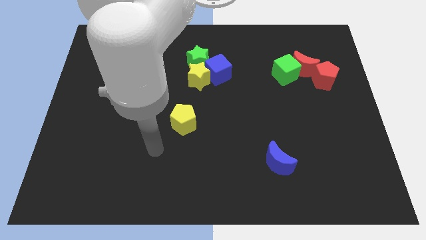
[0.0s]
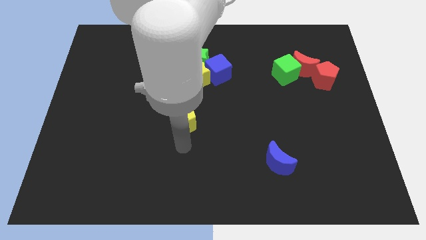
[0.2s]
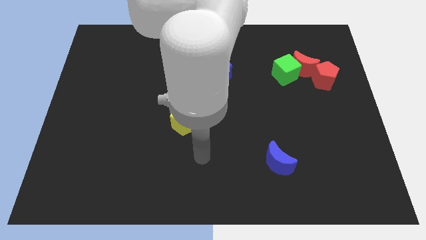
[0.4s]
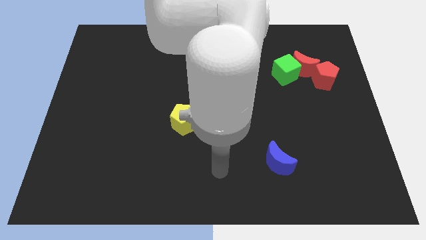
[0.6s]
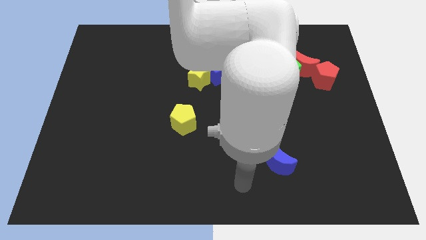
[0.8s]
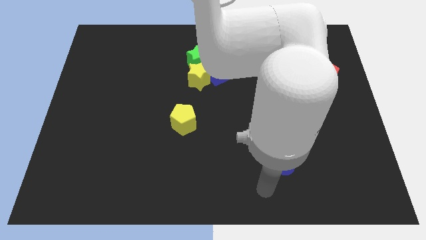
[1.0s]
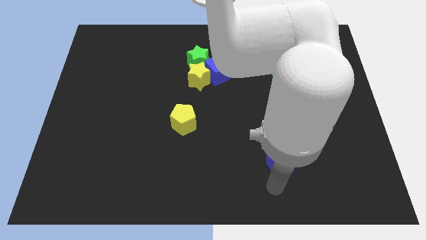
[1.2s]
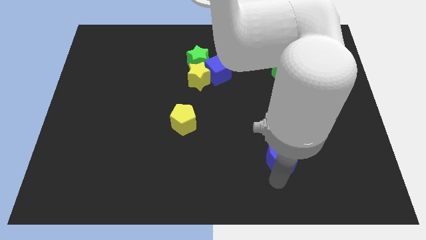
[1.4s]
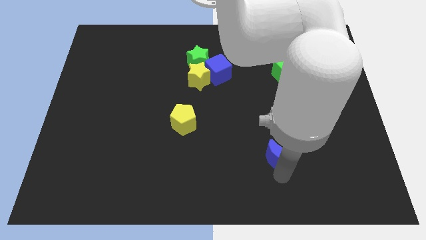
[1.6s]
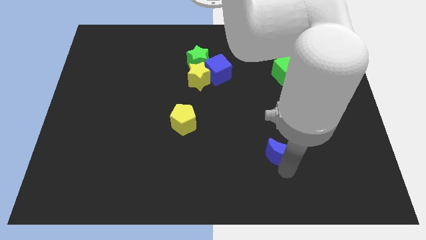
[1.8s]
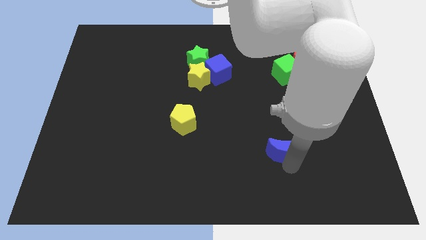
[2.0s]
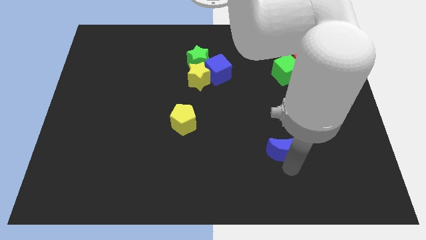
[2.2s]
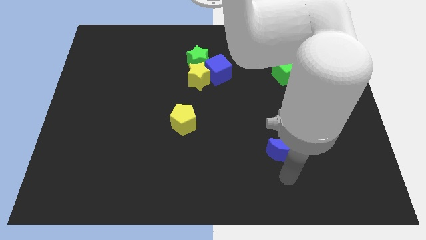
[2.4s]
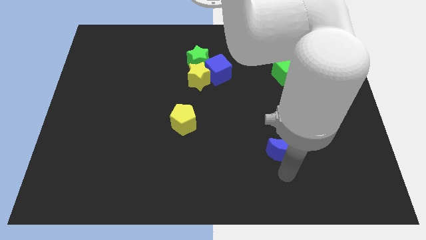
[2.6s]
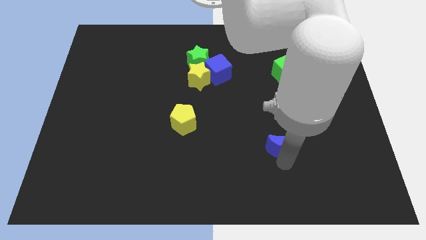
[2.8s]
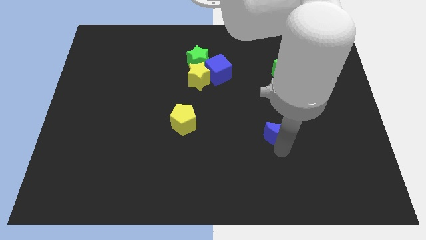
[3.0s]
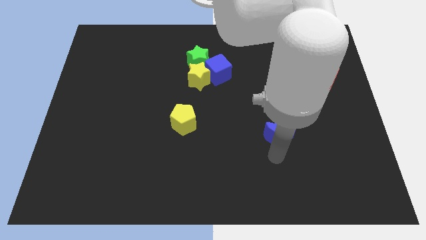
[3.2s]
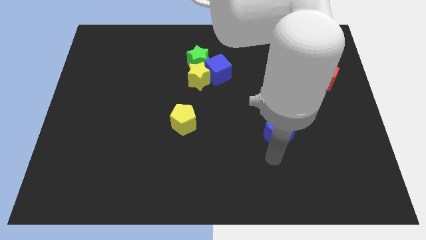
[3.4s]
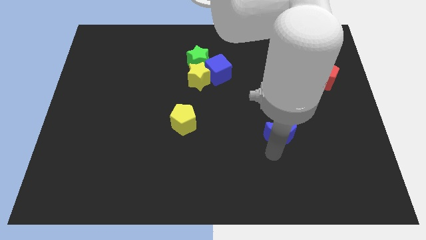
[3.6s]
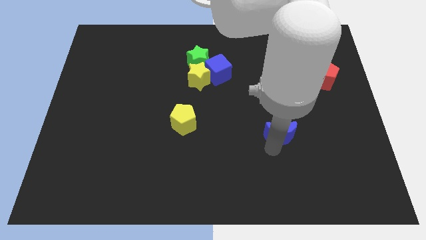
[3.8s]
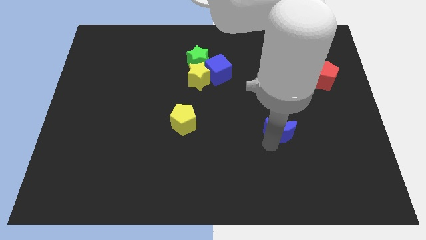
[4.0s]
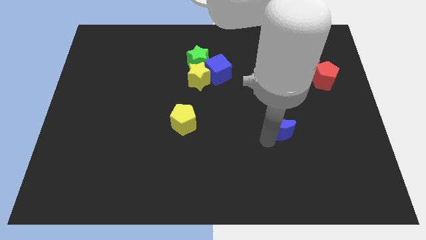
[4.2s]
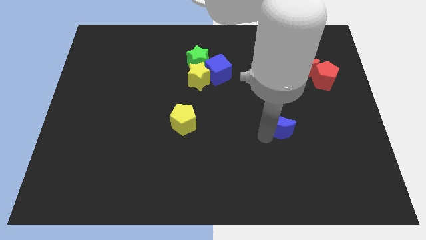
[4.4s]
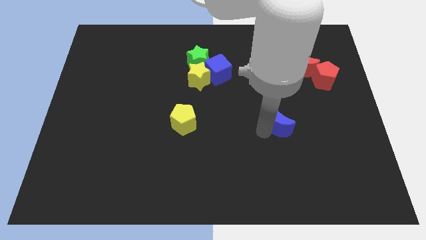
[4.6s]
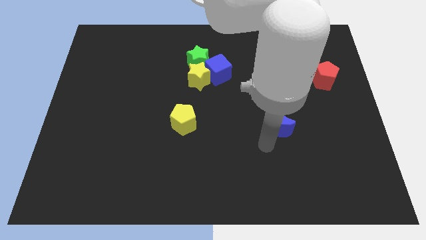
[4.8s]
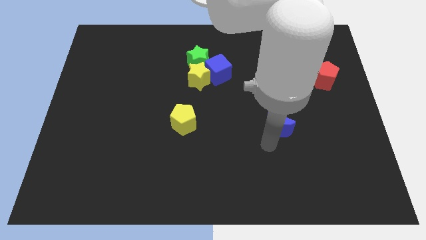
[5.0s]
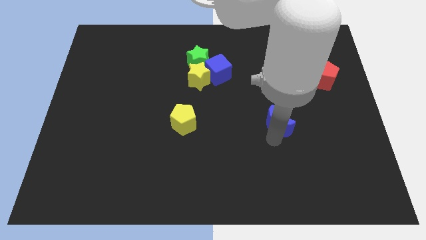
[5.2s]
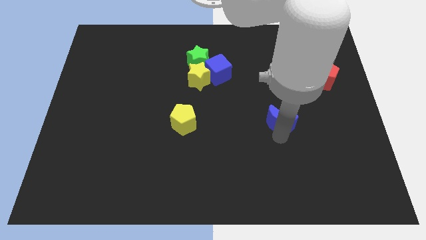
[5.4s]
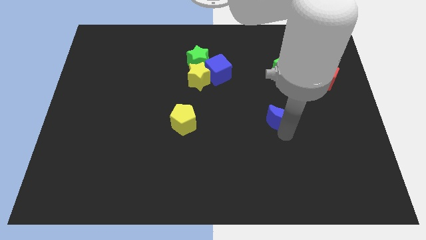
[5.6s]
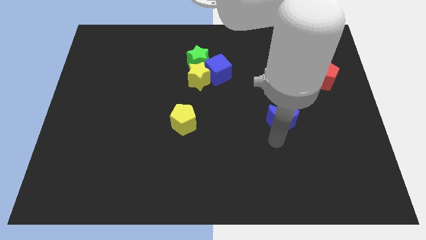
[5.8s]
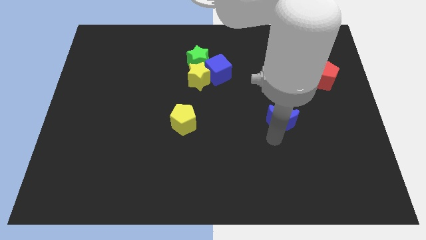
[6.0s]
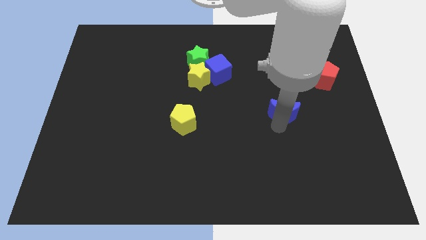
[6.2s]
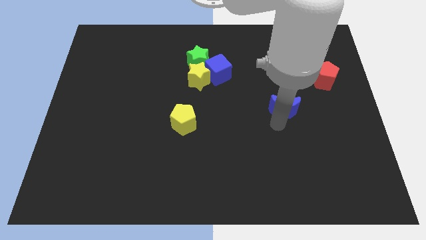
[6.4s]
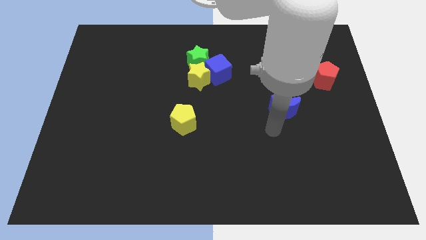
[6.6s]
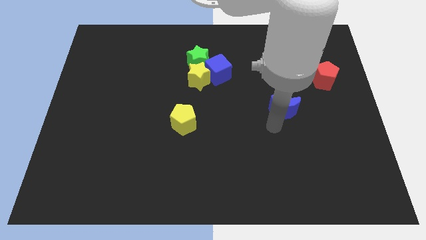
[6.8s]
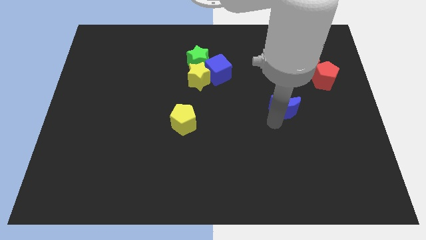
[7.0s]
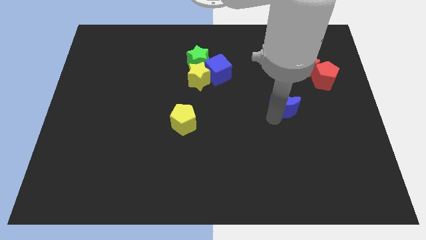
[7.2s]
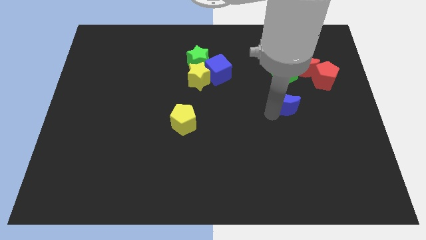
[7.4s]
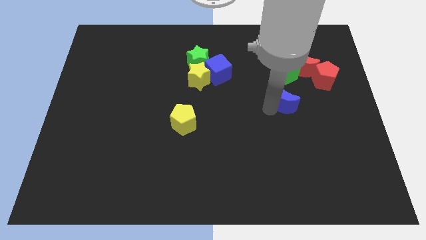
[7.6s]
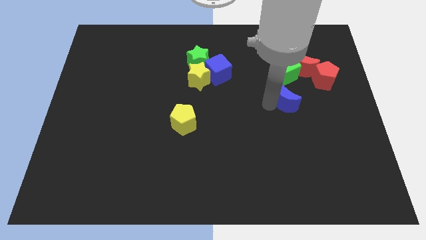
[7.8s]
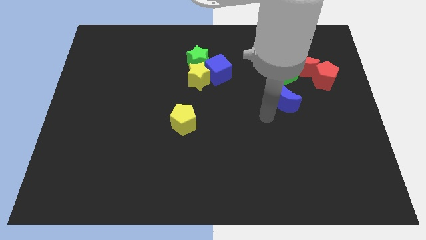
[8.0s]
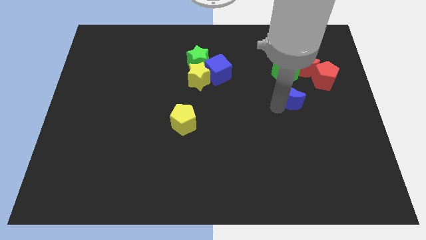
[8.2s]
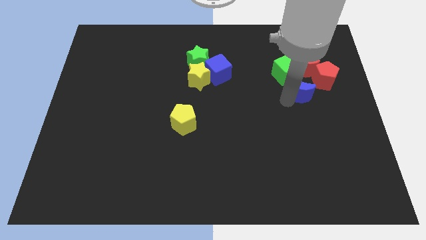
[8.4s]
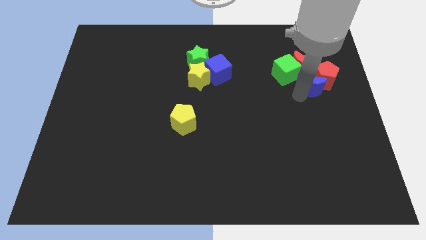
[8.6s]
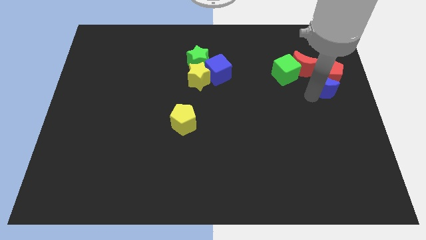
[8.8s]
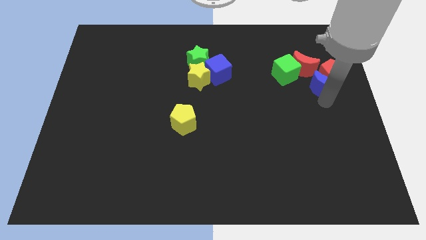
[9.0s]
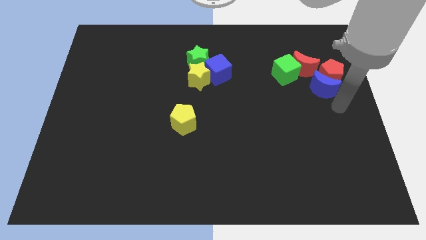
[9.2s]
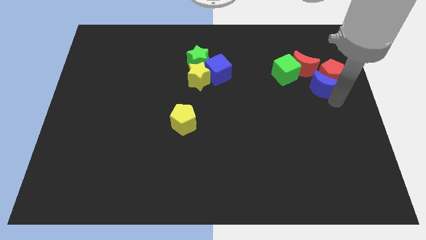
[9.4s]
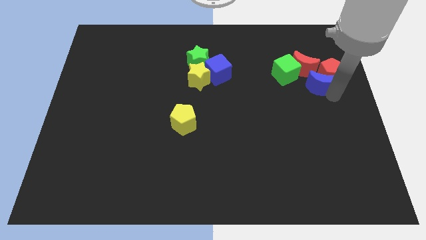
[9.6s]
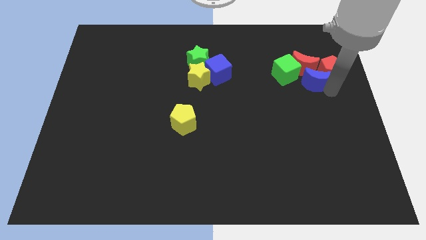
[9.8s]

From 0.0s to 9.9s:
move the blue moon next to the red moon

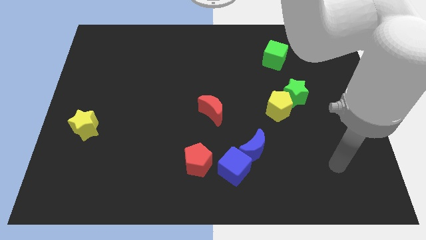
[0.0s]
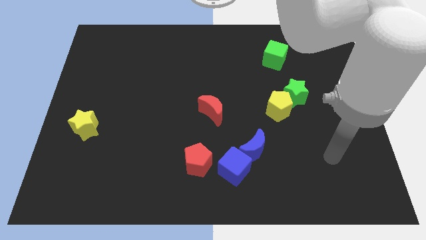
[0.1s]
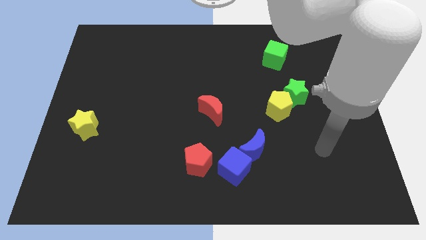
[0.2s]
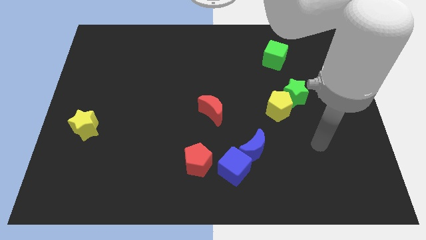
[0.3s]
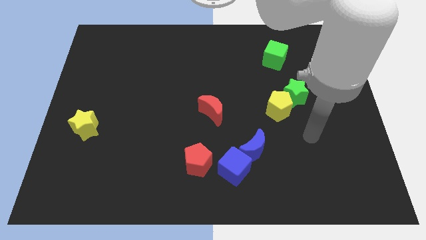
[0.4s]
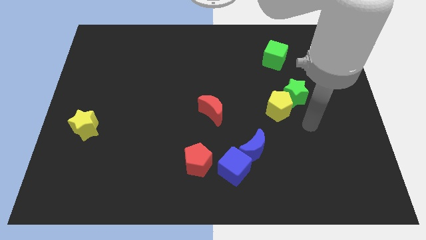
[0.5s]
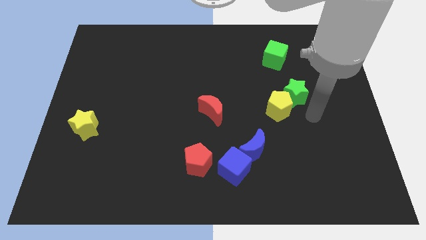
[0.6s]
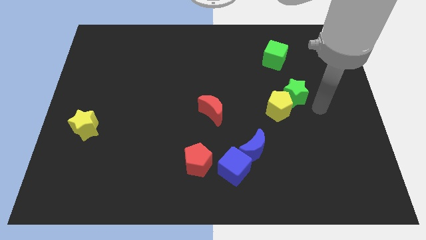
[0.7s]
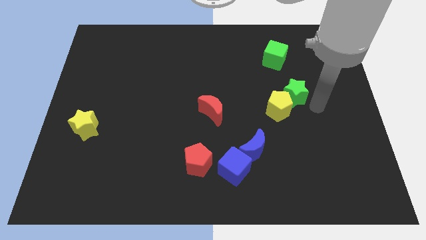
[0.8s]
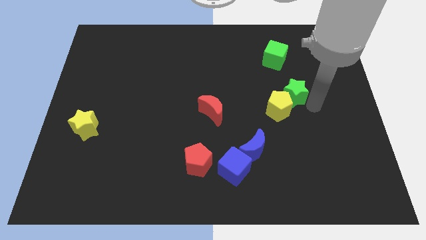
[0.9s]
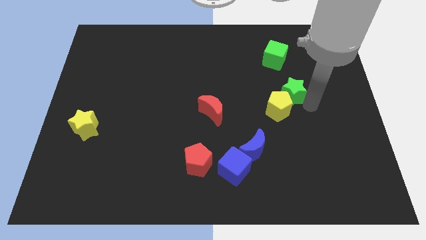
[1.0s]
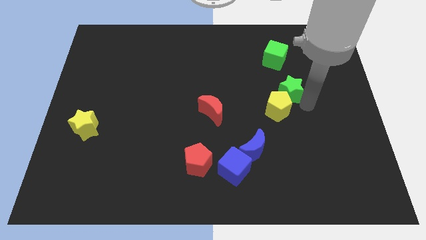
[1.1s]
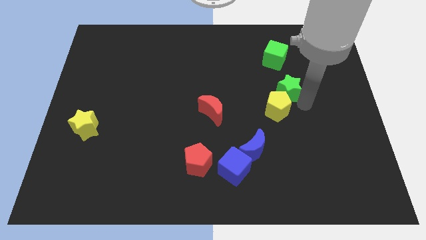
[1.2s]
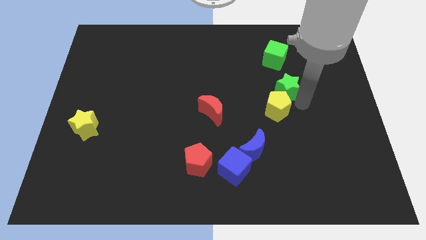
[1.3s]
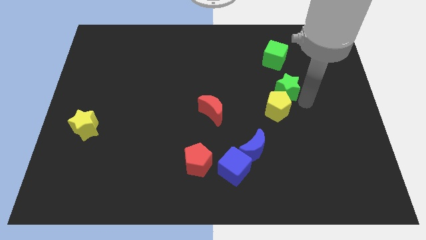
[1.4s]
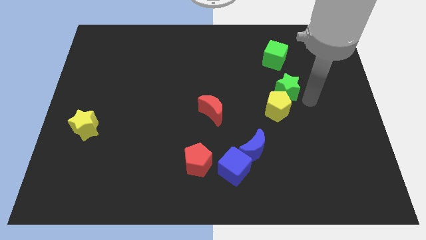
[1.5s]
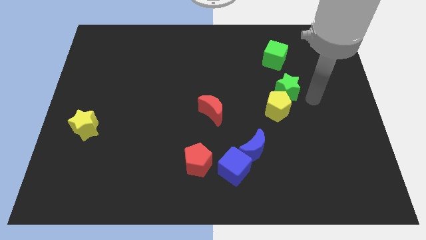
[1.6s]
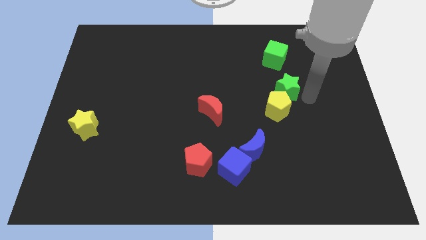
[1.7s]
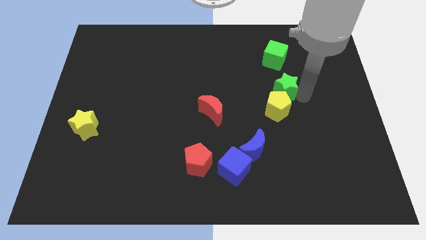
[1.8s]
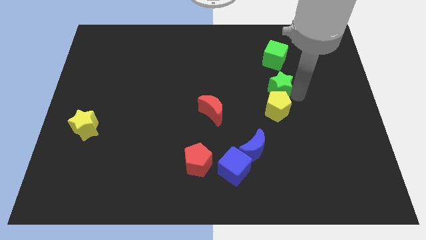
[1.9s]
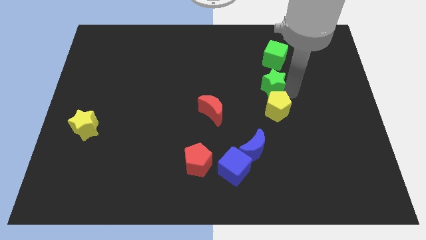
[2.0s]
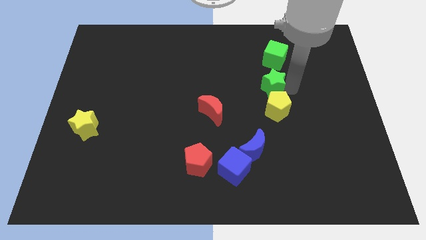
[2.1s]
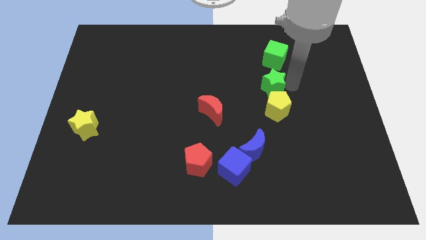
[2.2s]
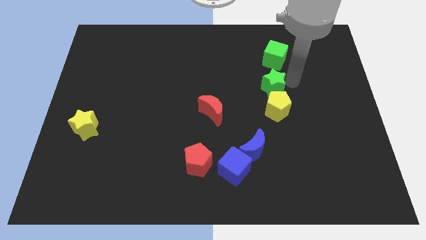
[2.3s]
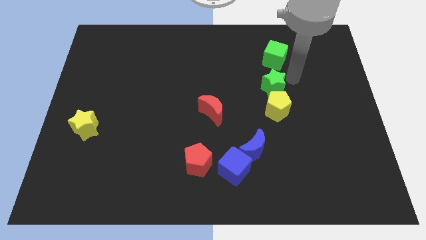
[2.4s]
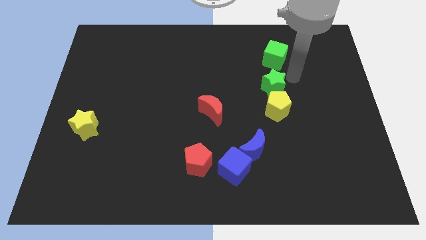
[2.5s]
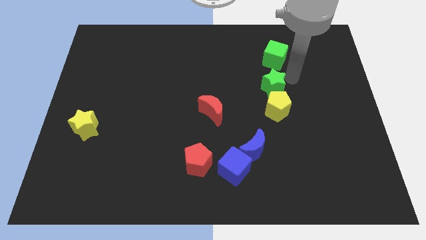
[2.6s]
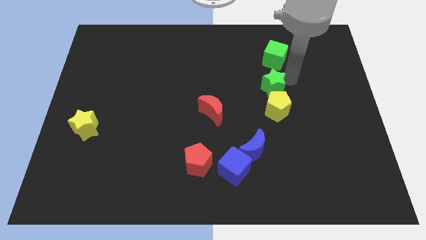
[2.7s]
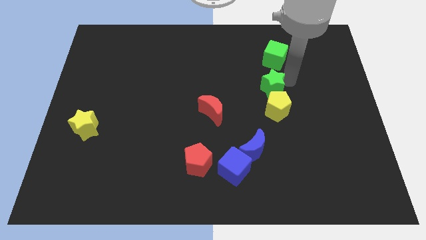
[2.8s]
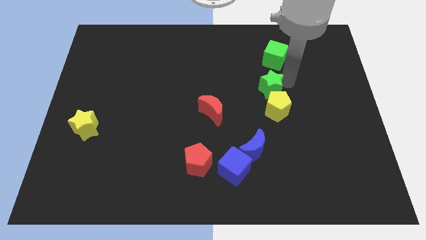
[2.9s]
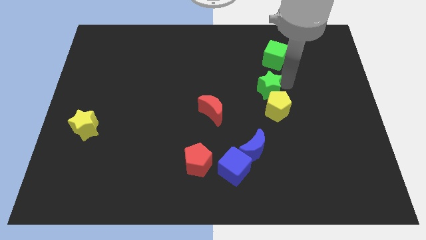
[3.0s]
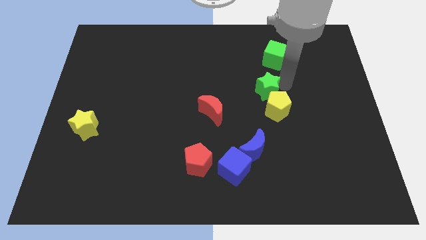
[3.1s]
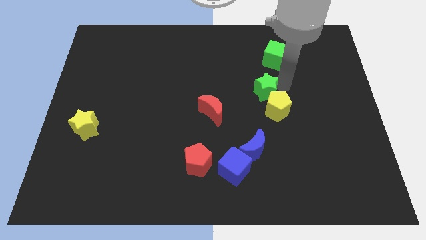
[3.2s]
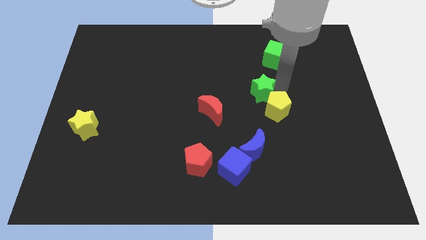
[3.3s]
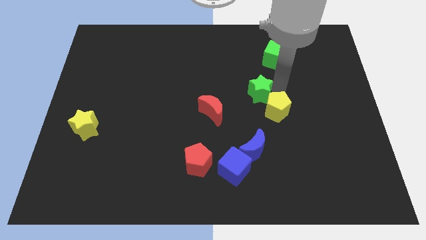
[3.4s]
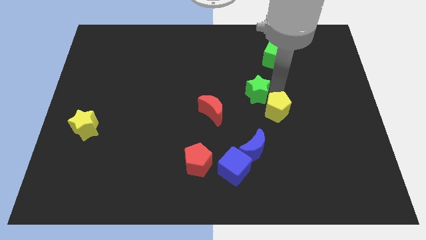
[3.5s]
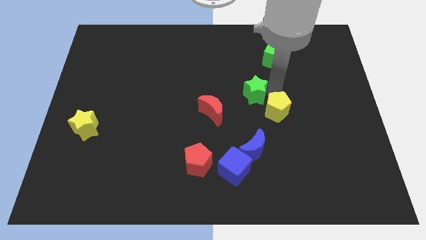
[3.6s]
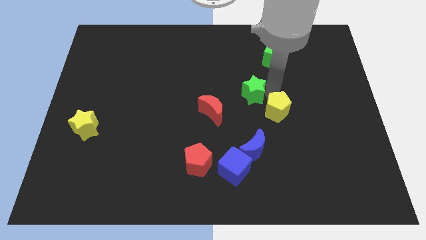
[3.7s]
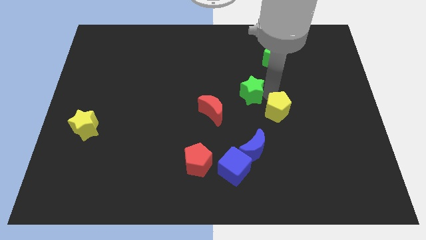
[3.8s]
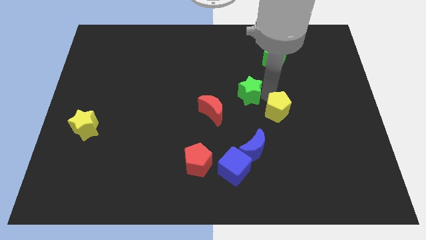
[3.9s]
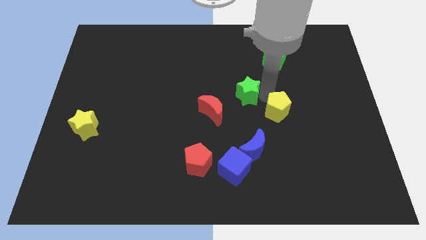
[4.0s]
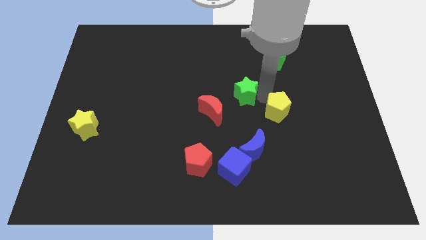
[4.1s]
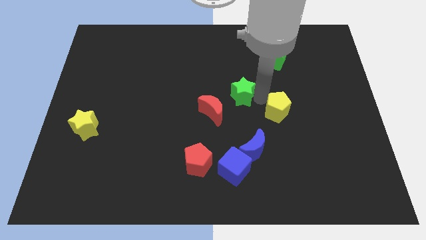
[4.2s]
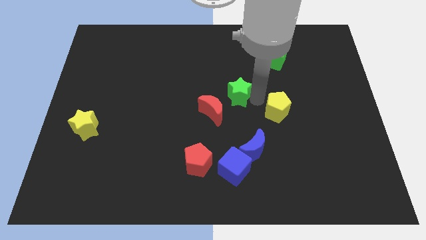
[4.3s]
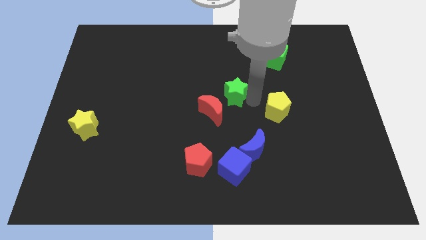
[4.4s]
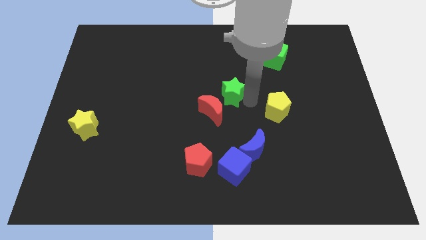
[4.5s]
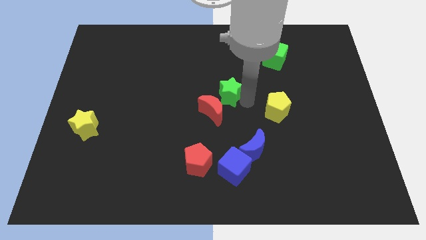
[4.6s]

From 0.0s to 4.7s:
slide the green star to the red moon
